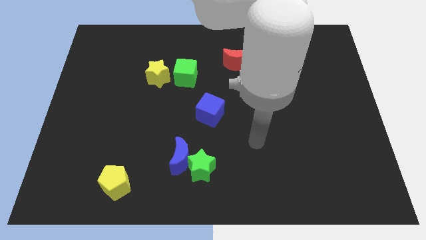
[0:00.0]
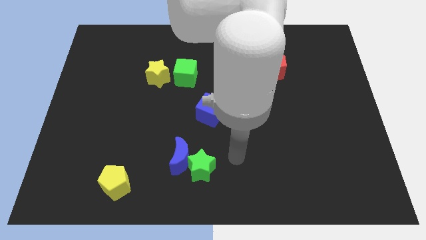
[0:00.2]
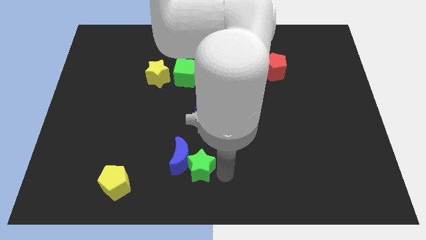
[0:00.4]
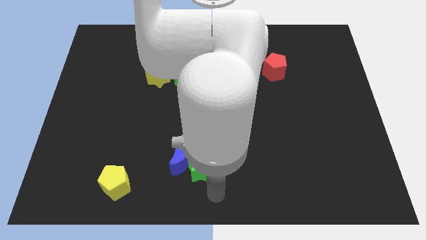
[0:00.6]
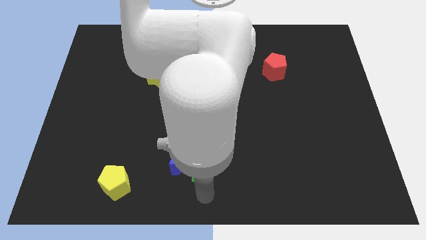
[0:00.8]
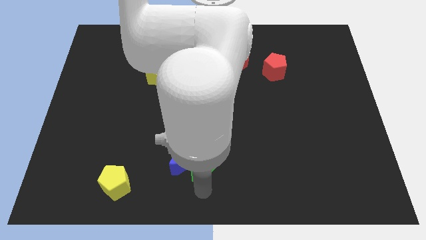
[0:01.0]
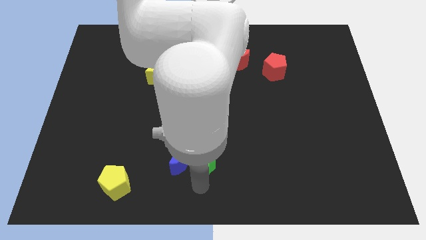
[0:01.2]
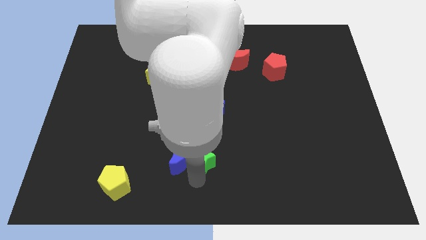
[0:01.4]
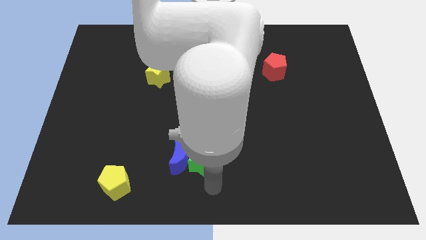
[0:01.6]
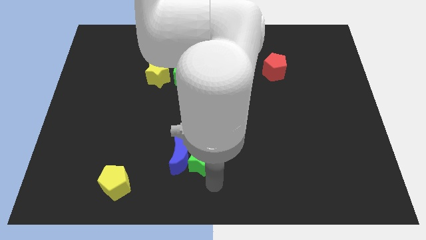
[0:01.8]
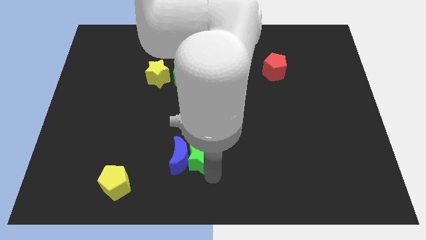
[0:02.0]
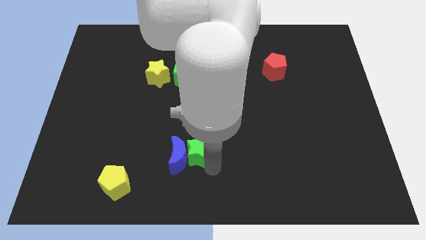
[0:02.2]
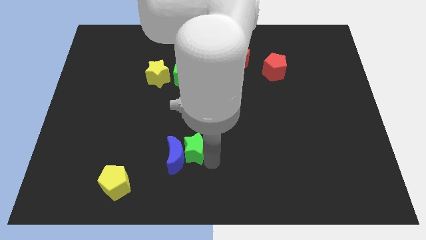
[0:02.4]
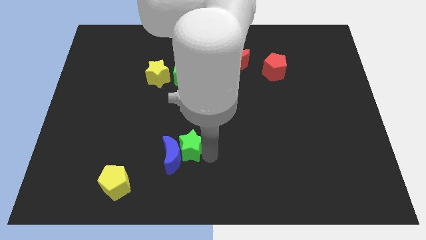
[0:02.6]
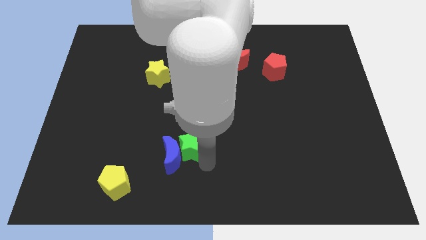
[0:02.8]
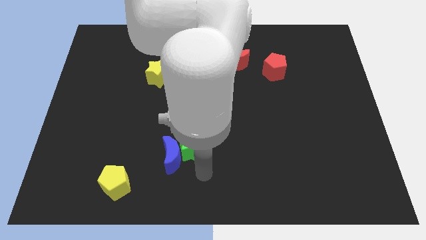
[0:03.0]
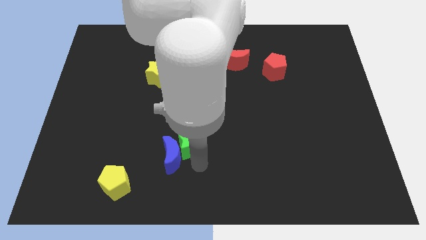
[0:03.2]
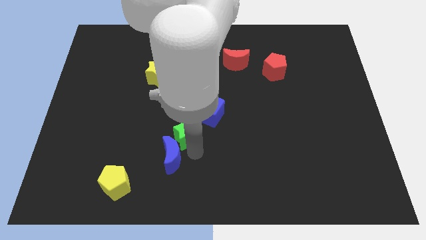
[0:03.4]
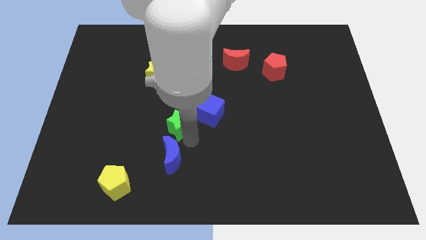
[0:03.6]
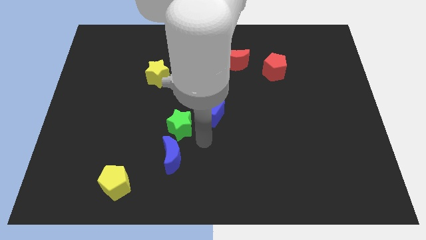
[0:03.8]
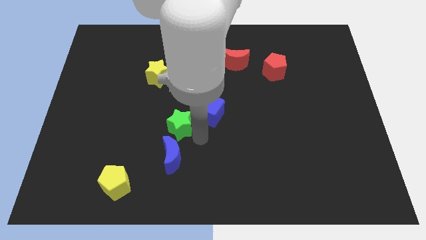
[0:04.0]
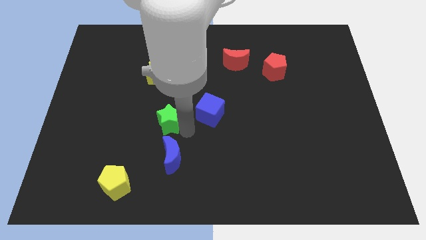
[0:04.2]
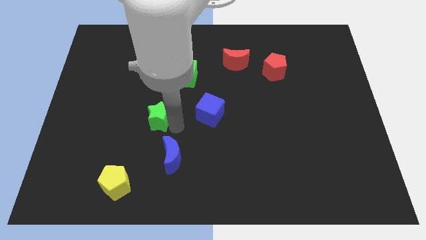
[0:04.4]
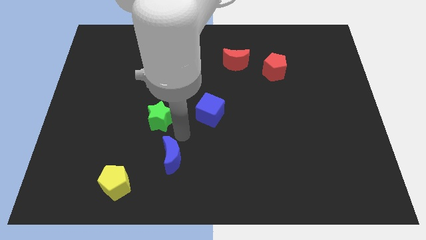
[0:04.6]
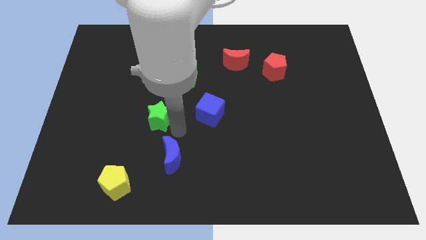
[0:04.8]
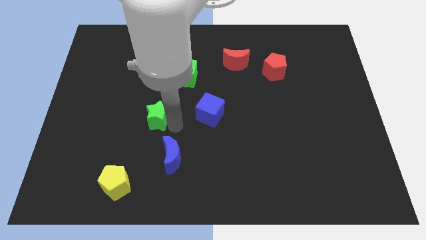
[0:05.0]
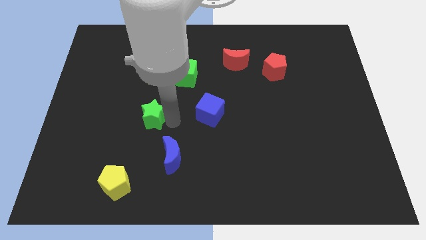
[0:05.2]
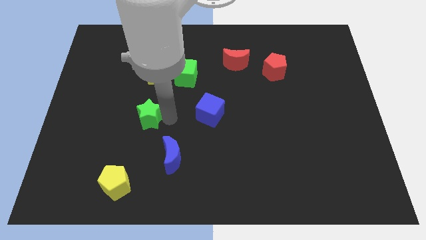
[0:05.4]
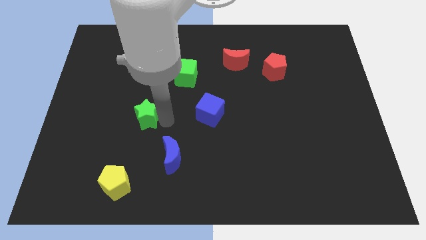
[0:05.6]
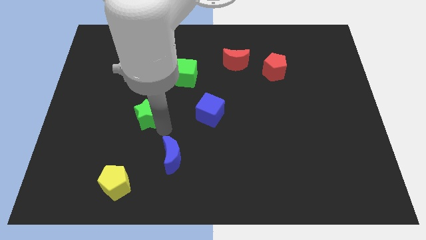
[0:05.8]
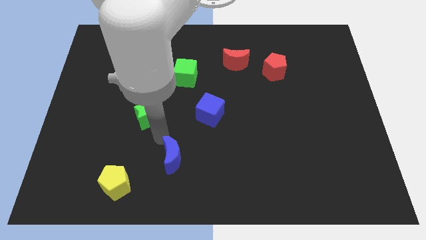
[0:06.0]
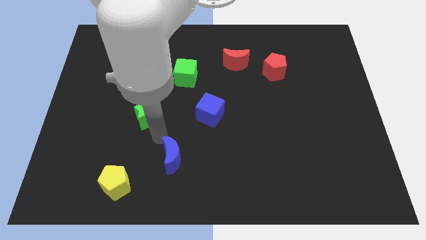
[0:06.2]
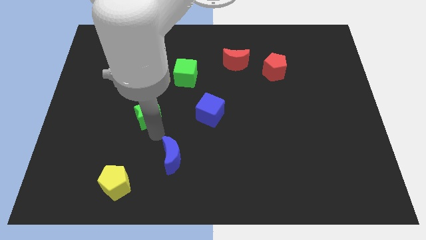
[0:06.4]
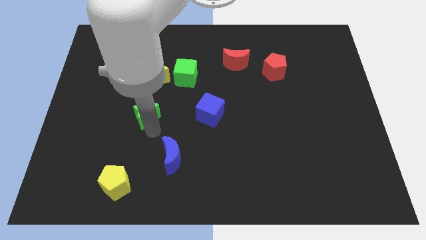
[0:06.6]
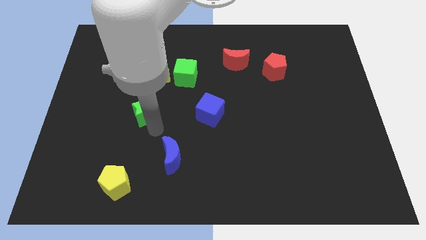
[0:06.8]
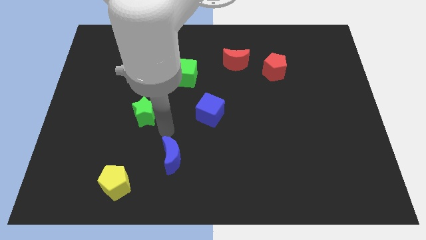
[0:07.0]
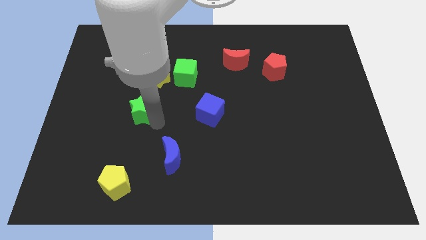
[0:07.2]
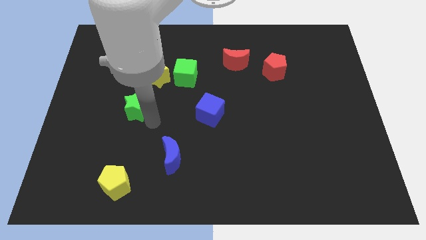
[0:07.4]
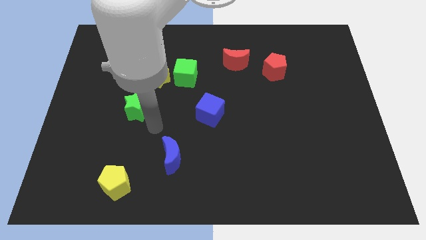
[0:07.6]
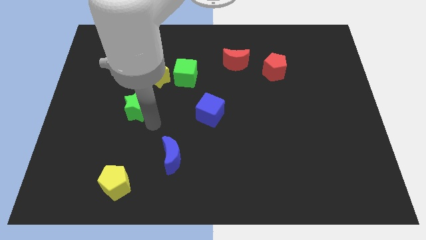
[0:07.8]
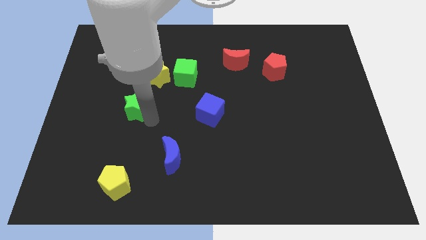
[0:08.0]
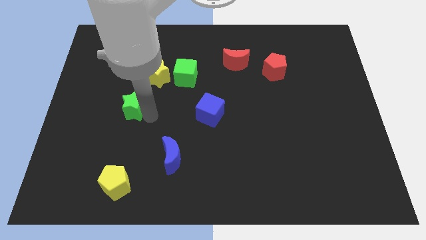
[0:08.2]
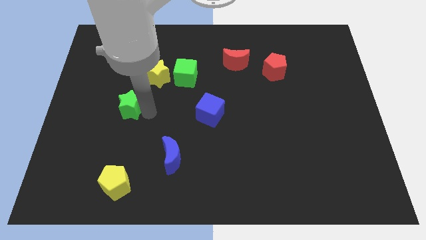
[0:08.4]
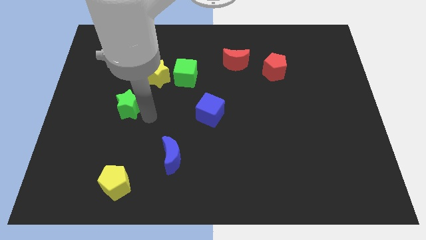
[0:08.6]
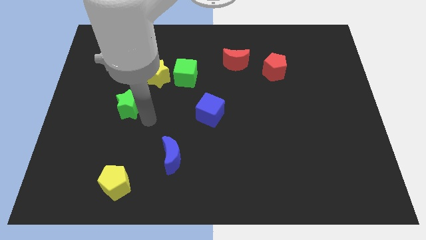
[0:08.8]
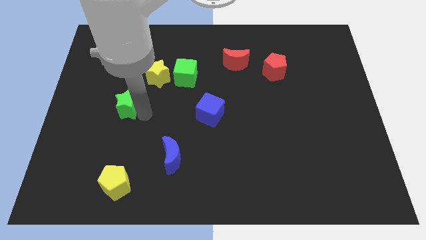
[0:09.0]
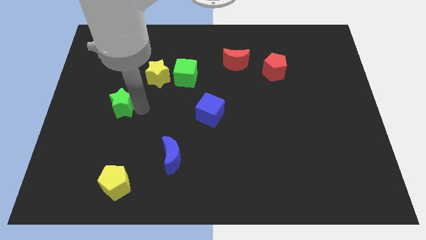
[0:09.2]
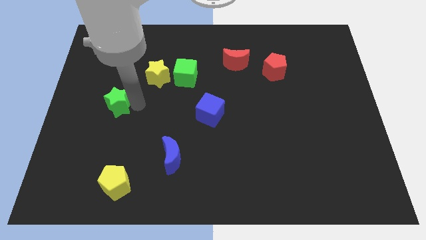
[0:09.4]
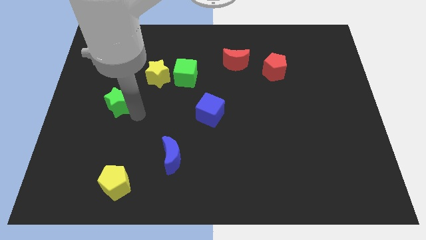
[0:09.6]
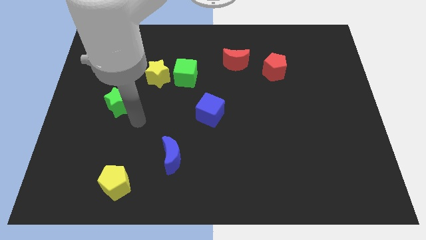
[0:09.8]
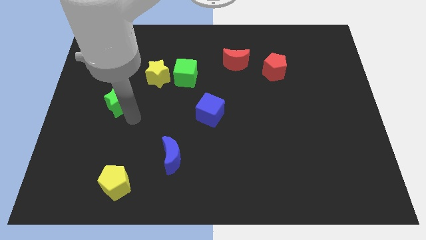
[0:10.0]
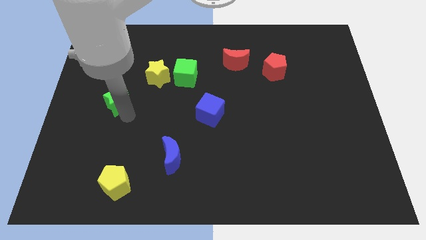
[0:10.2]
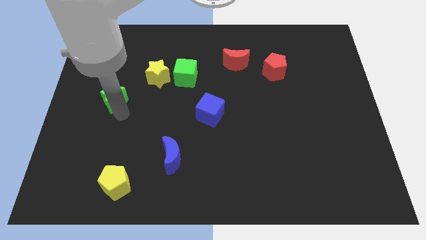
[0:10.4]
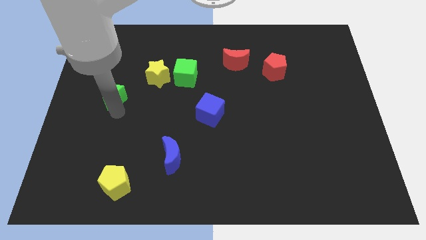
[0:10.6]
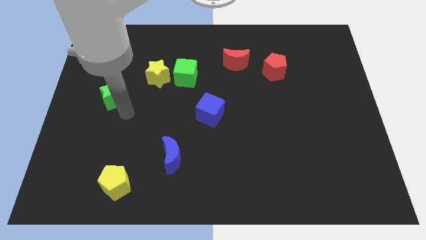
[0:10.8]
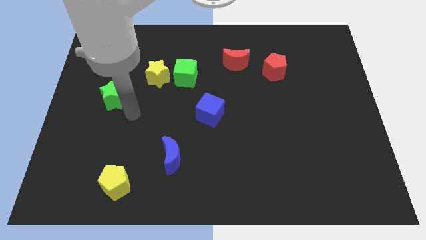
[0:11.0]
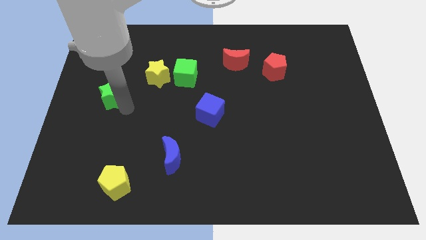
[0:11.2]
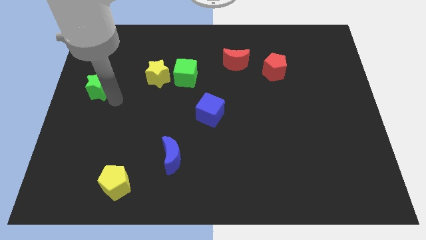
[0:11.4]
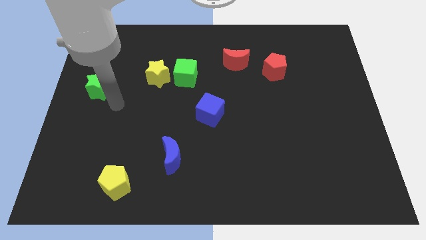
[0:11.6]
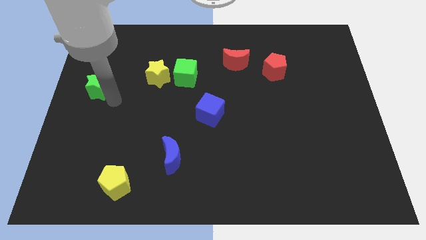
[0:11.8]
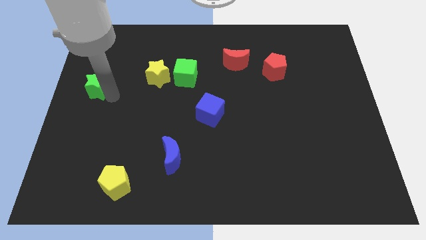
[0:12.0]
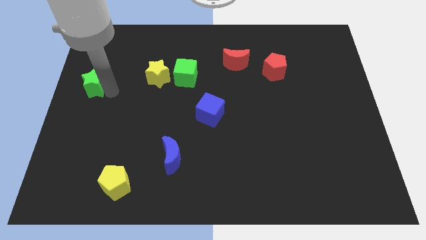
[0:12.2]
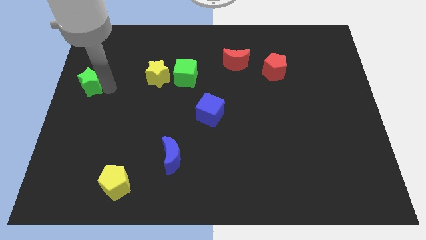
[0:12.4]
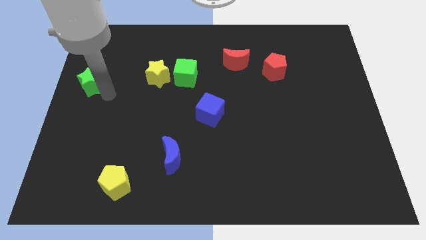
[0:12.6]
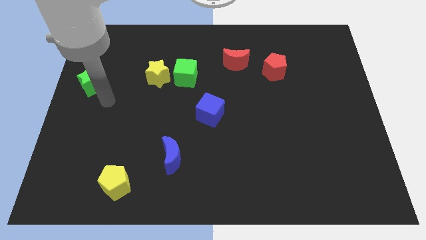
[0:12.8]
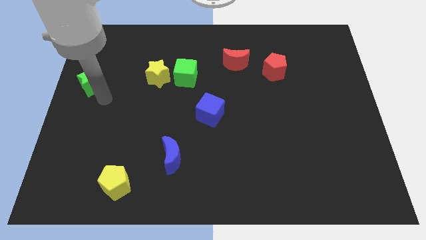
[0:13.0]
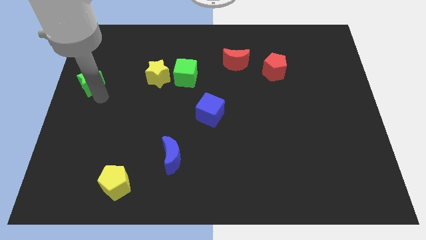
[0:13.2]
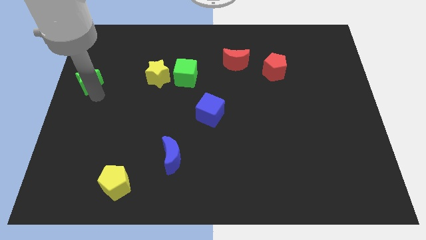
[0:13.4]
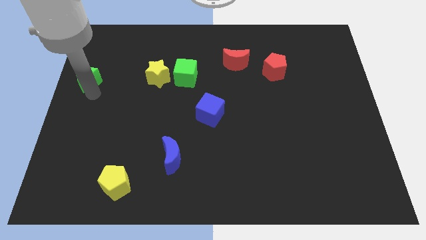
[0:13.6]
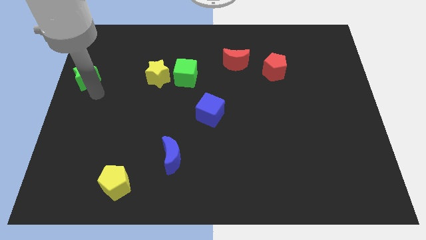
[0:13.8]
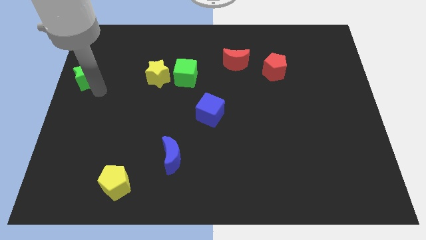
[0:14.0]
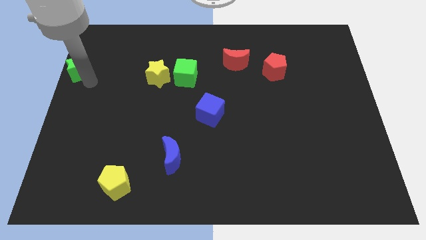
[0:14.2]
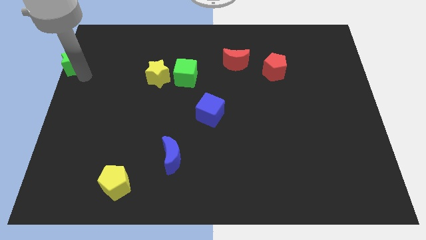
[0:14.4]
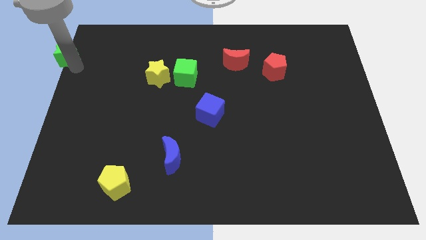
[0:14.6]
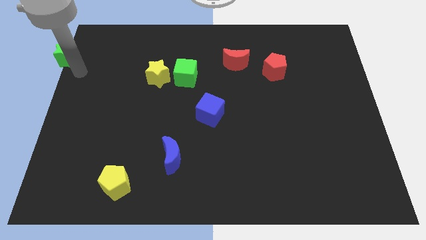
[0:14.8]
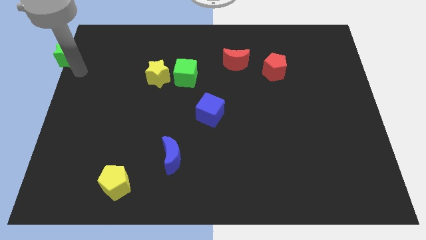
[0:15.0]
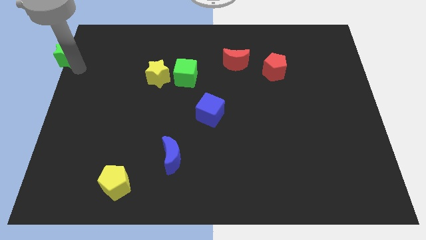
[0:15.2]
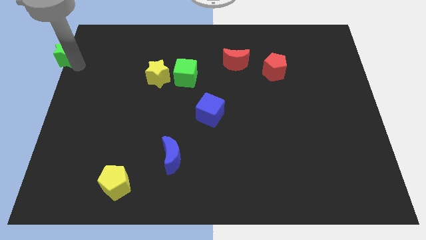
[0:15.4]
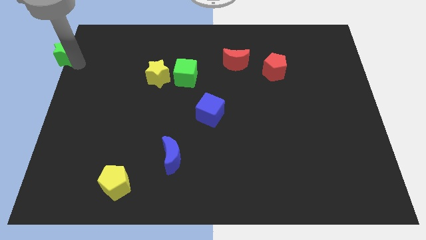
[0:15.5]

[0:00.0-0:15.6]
move the green star to the top left of the board
